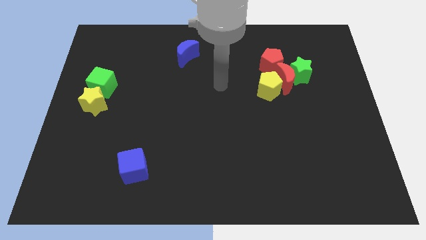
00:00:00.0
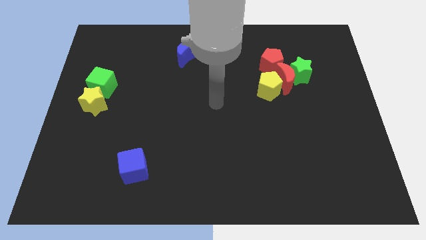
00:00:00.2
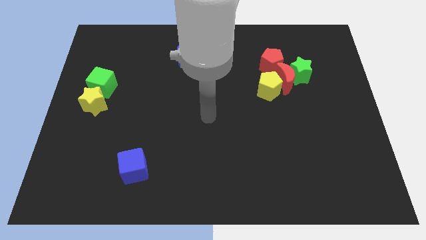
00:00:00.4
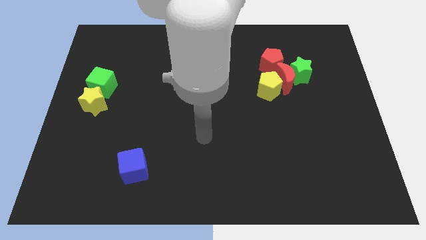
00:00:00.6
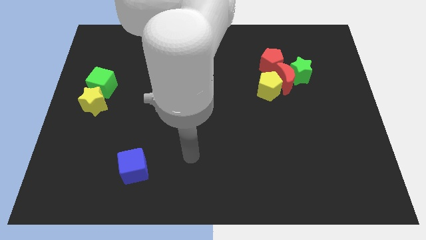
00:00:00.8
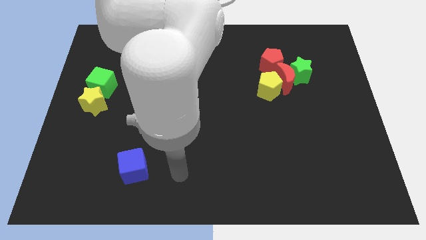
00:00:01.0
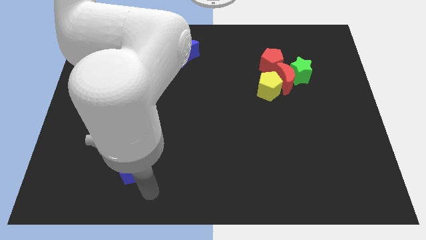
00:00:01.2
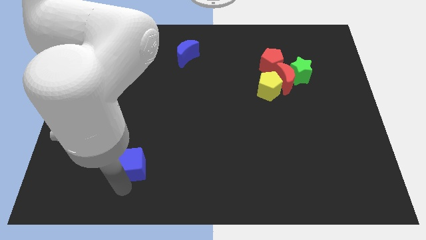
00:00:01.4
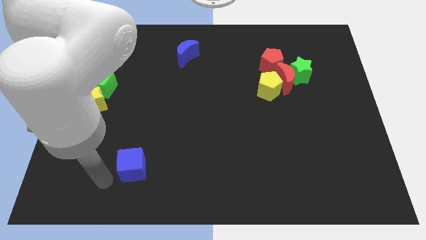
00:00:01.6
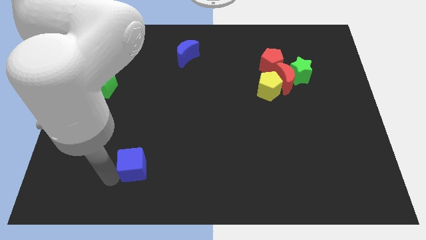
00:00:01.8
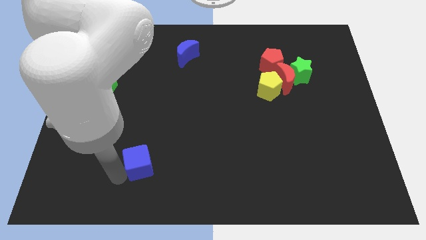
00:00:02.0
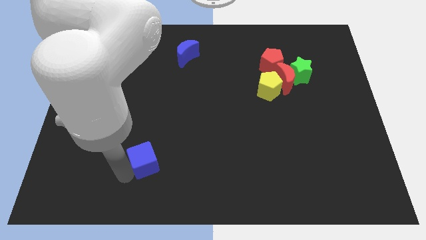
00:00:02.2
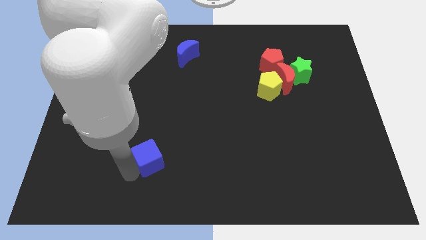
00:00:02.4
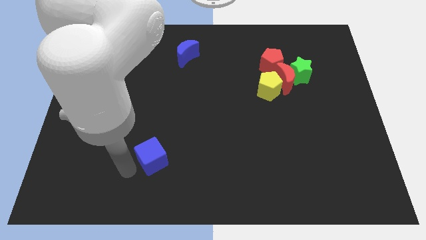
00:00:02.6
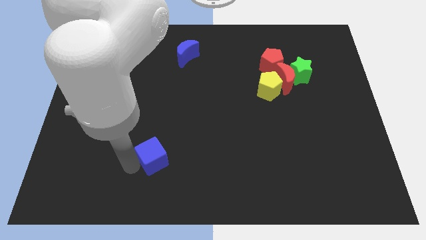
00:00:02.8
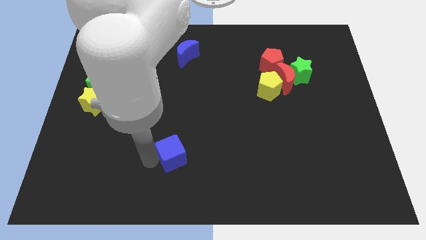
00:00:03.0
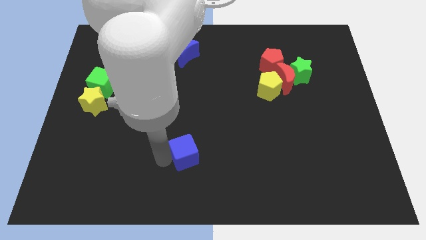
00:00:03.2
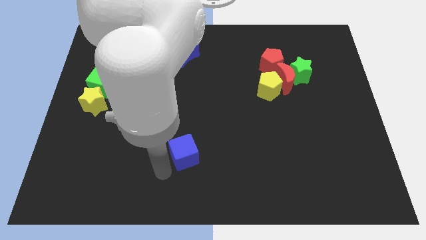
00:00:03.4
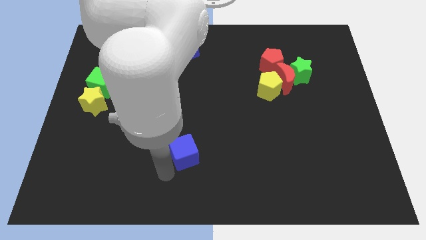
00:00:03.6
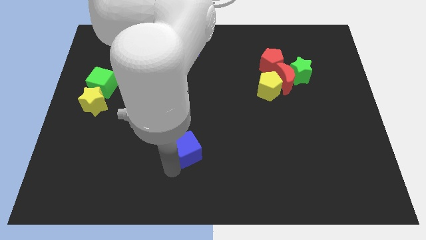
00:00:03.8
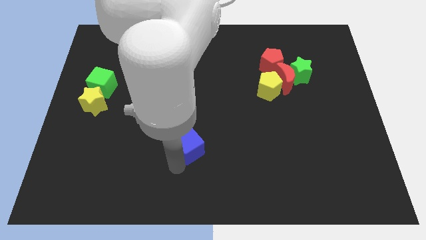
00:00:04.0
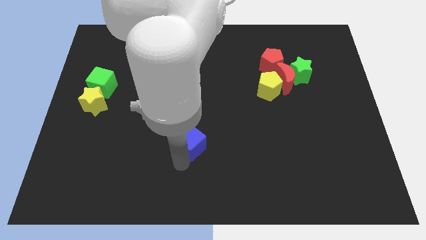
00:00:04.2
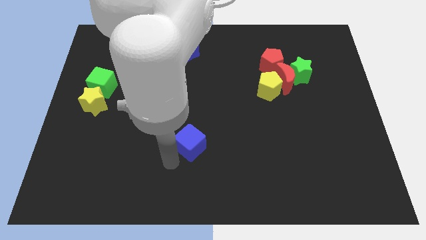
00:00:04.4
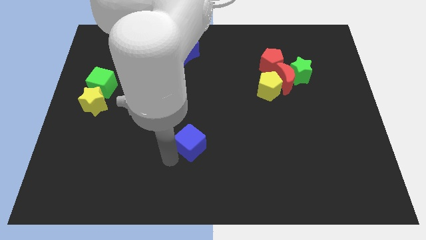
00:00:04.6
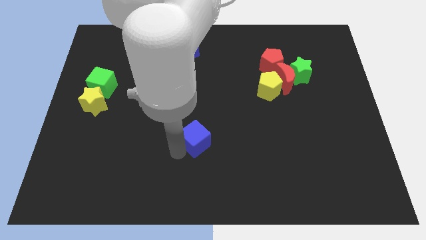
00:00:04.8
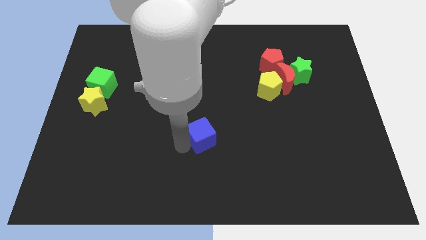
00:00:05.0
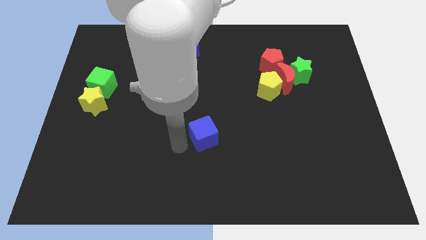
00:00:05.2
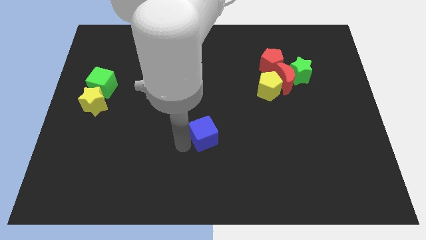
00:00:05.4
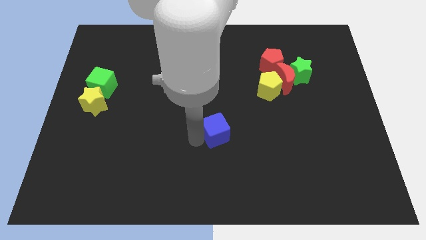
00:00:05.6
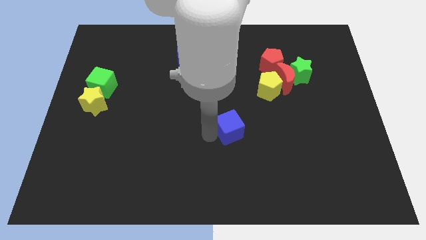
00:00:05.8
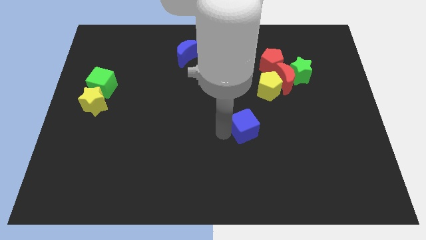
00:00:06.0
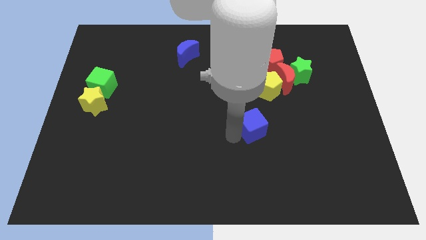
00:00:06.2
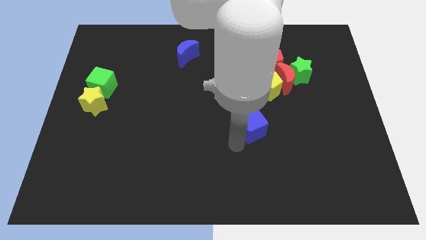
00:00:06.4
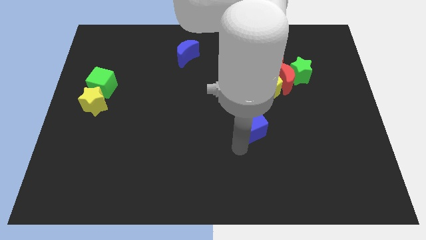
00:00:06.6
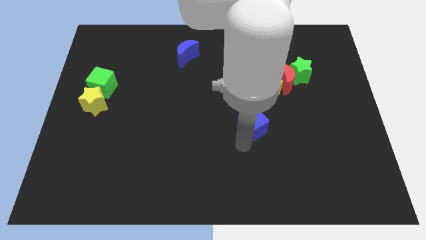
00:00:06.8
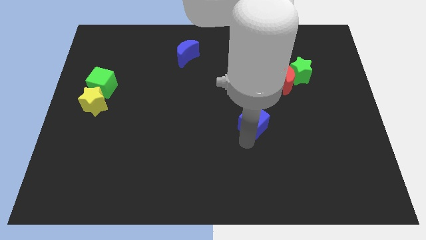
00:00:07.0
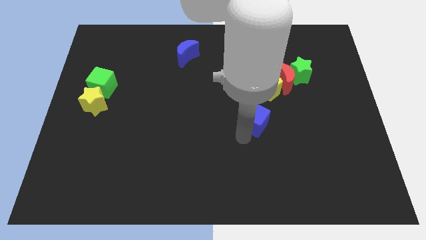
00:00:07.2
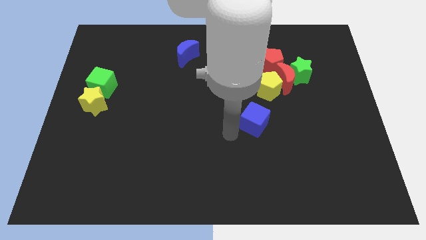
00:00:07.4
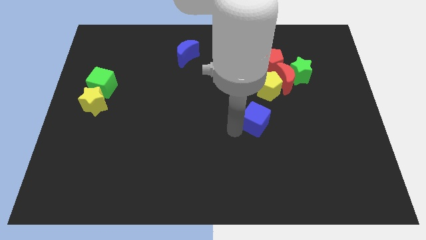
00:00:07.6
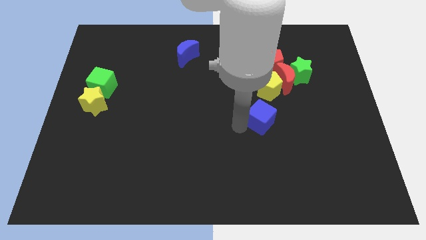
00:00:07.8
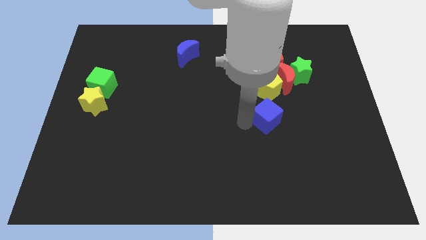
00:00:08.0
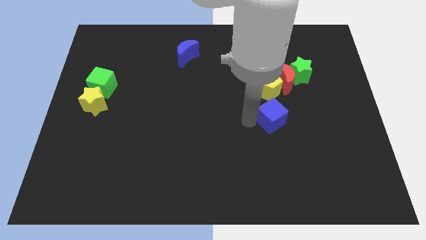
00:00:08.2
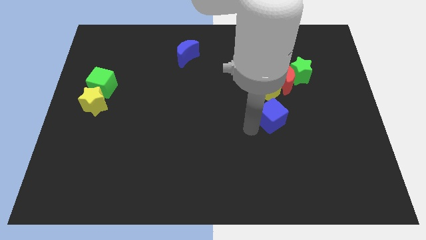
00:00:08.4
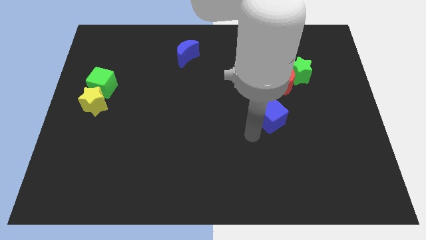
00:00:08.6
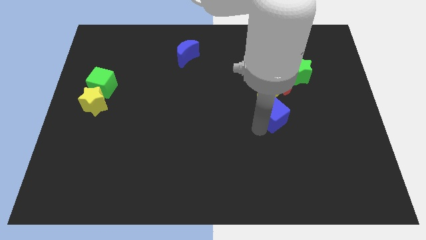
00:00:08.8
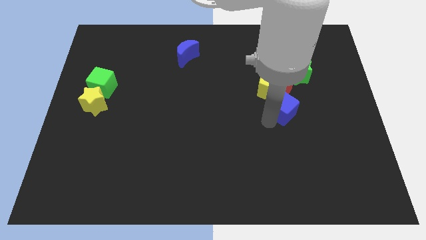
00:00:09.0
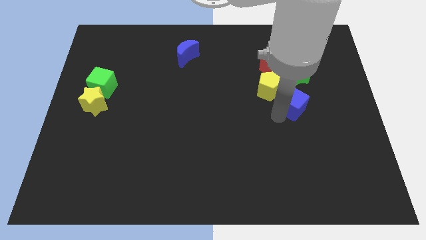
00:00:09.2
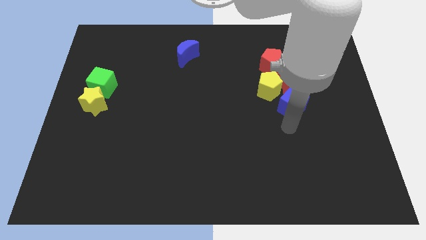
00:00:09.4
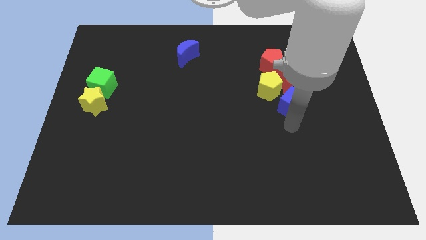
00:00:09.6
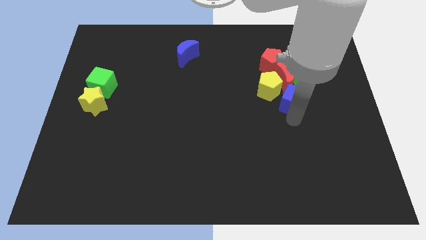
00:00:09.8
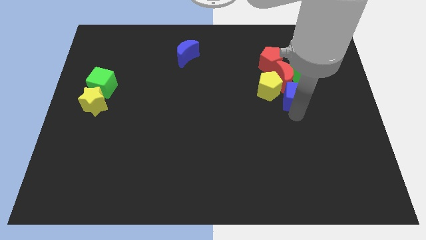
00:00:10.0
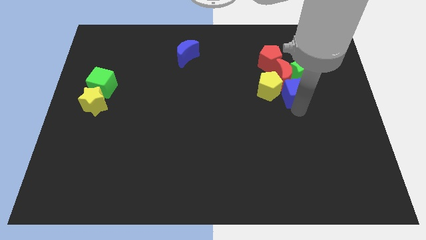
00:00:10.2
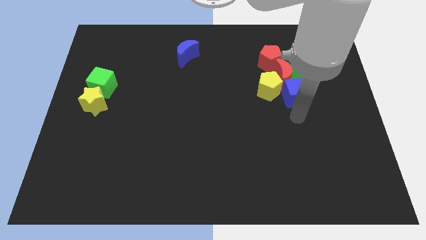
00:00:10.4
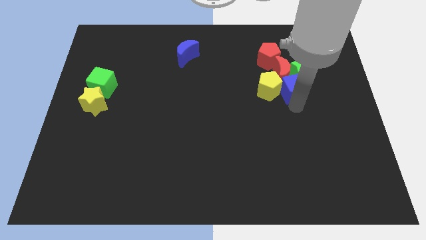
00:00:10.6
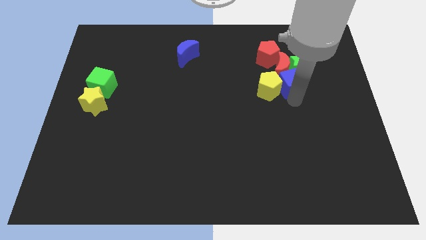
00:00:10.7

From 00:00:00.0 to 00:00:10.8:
put the blue cube to the bottom right of the red pentagon
